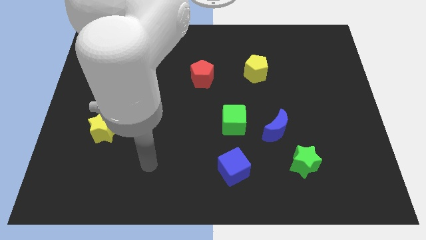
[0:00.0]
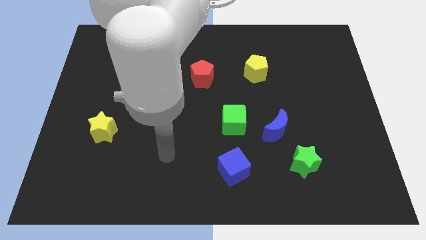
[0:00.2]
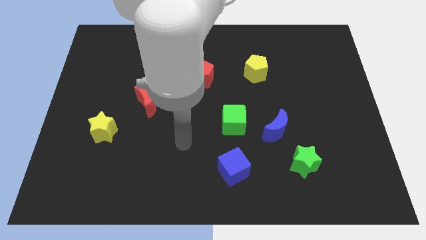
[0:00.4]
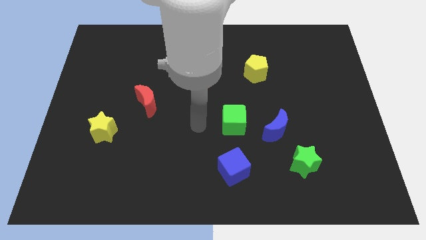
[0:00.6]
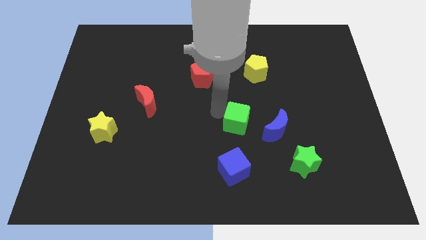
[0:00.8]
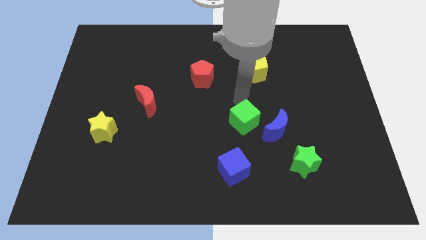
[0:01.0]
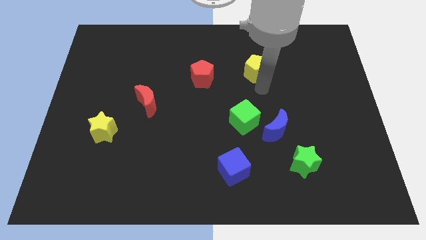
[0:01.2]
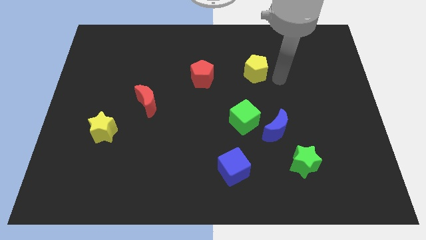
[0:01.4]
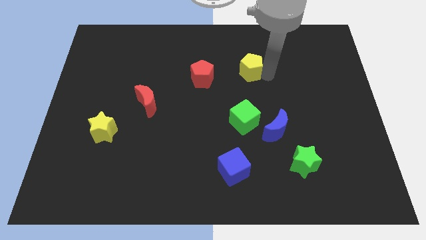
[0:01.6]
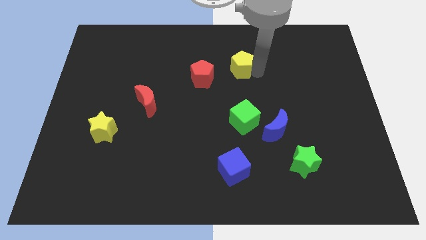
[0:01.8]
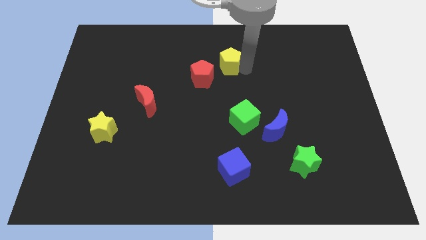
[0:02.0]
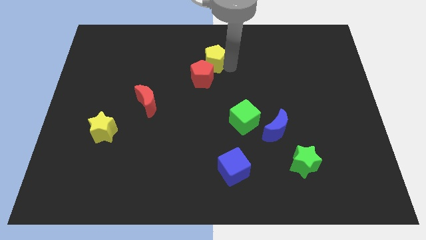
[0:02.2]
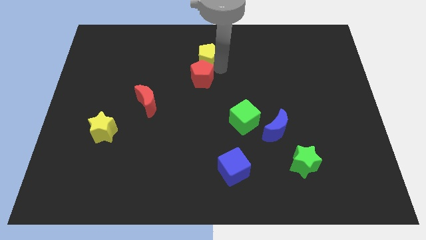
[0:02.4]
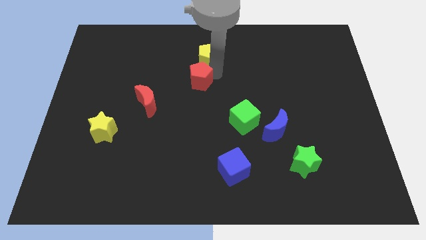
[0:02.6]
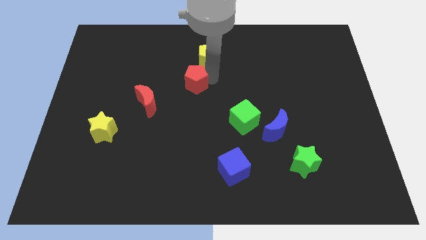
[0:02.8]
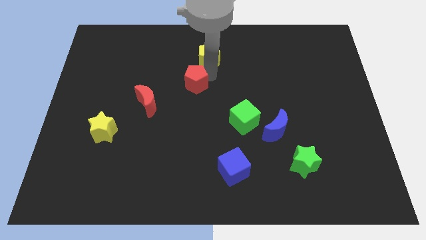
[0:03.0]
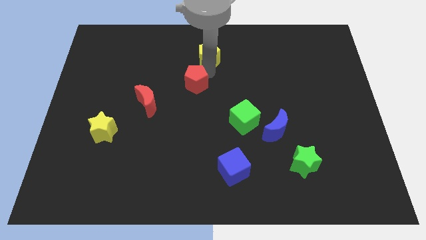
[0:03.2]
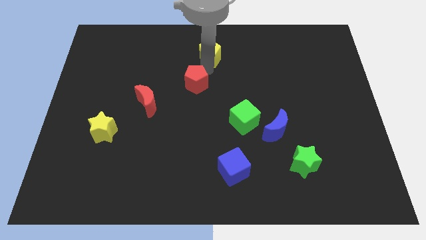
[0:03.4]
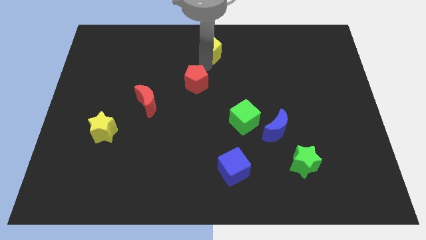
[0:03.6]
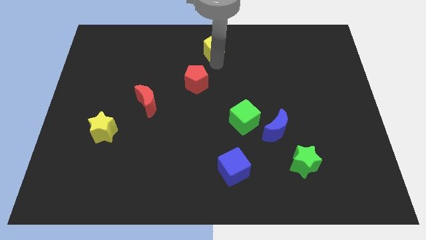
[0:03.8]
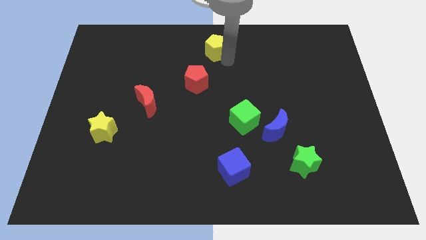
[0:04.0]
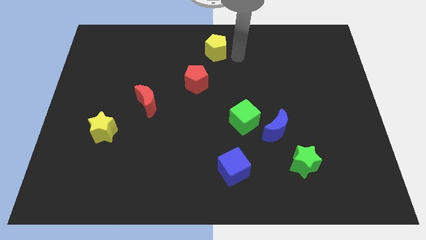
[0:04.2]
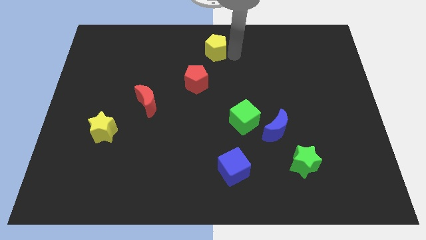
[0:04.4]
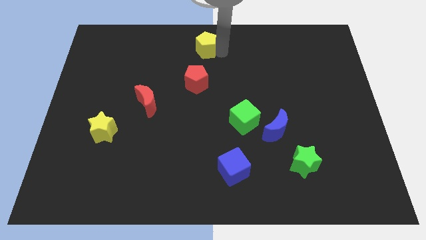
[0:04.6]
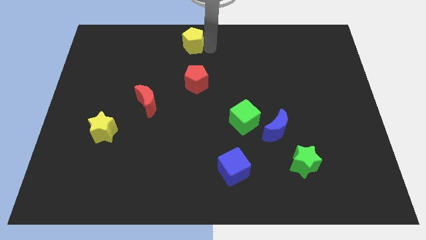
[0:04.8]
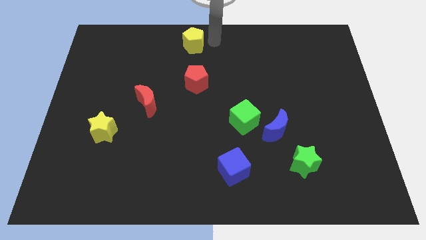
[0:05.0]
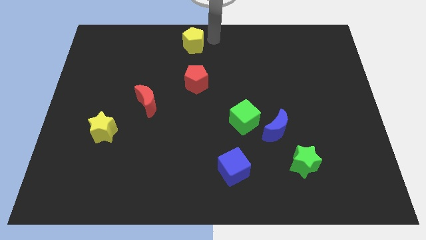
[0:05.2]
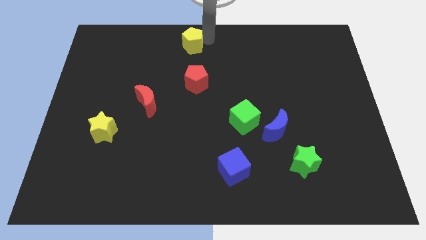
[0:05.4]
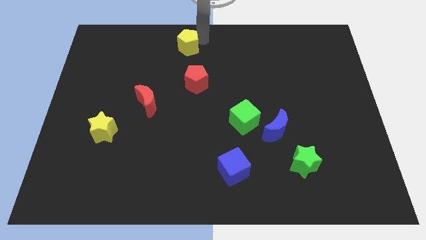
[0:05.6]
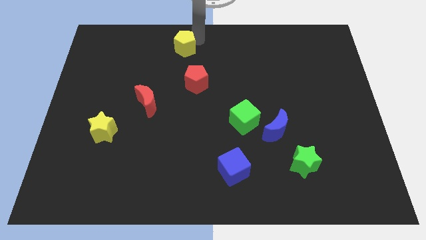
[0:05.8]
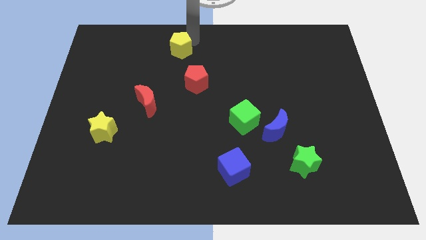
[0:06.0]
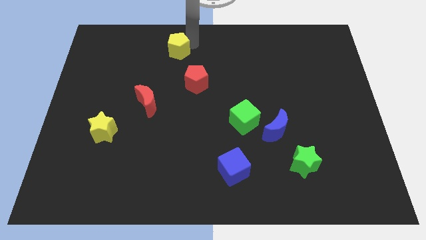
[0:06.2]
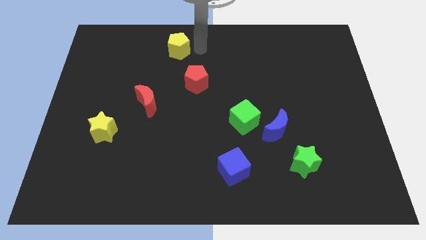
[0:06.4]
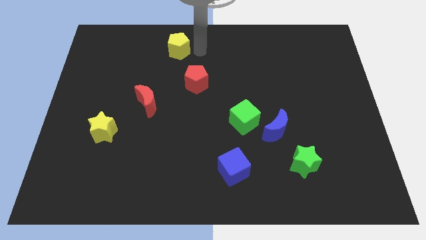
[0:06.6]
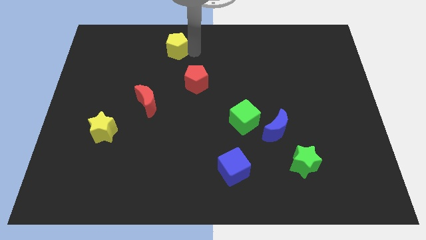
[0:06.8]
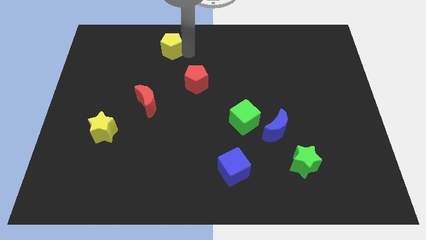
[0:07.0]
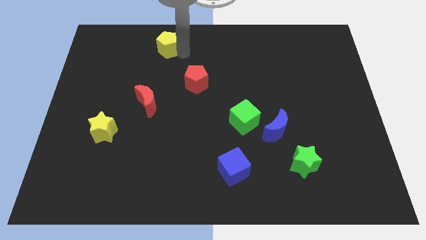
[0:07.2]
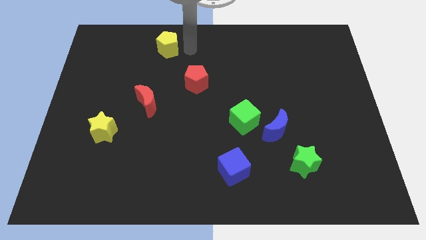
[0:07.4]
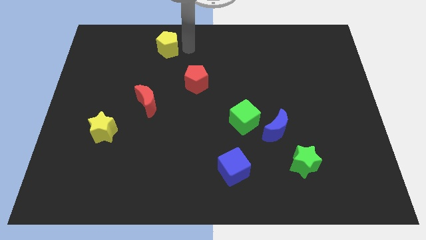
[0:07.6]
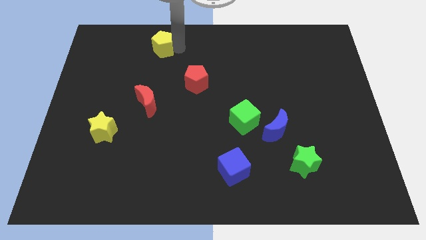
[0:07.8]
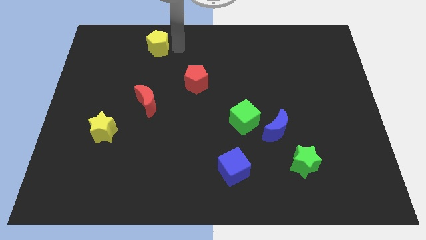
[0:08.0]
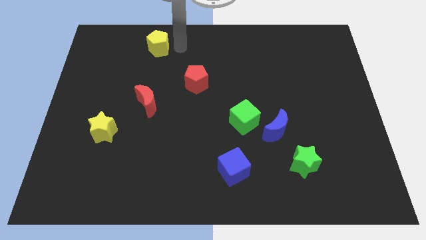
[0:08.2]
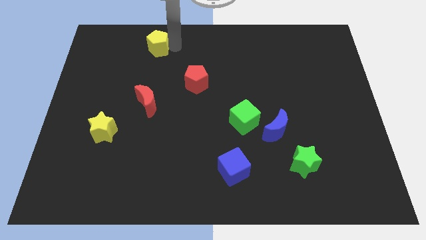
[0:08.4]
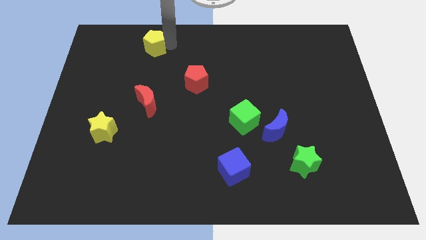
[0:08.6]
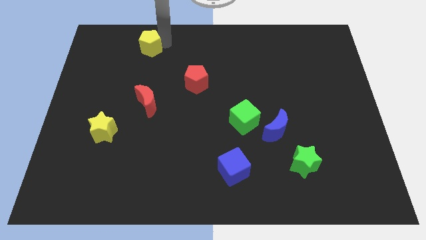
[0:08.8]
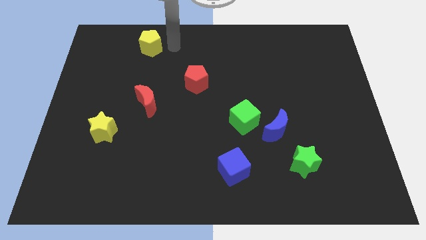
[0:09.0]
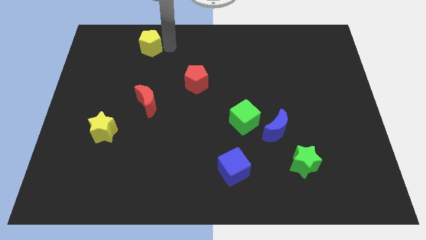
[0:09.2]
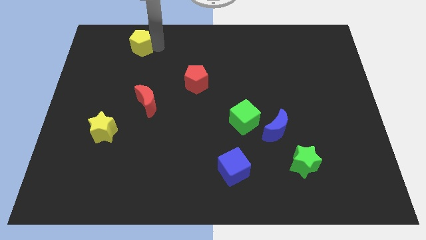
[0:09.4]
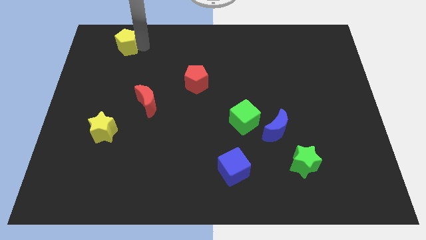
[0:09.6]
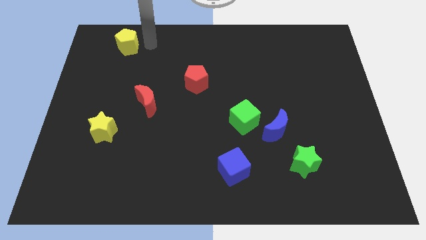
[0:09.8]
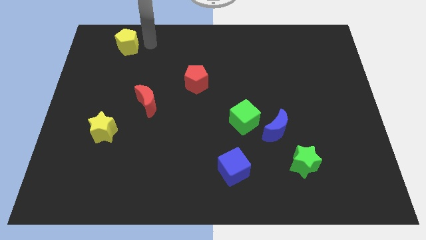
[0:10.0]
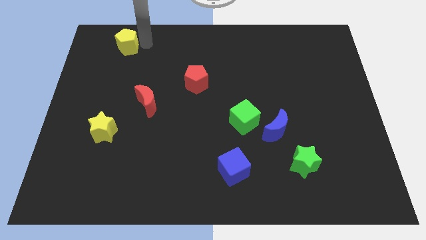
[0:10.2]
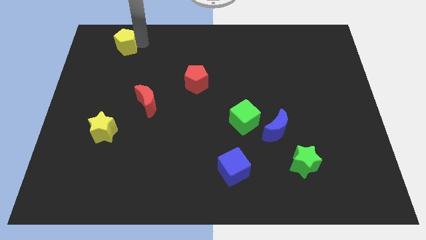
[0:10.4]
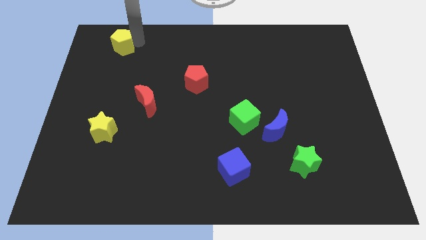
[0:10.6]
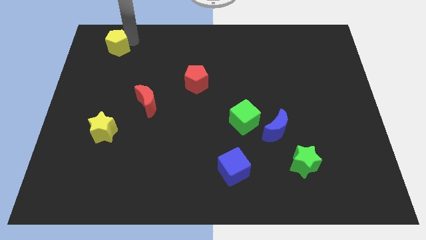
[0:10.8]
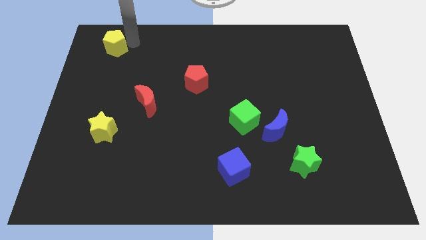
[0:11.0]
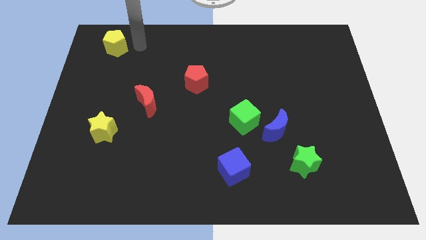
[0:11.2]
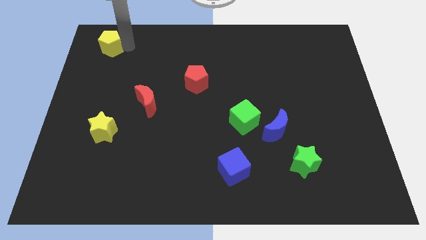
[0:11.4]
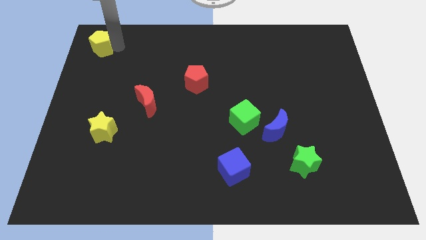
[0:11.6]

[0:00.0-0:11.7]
push the yellow pentagon to the upper left corner
